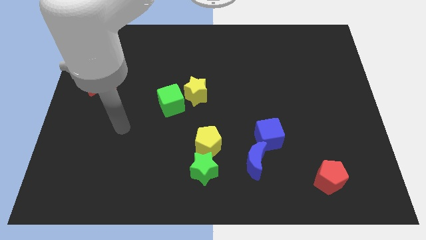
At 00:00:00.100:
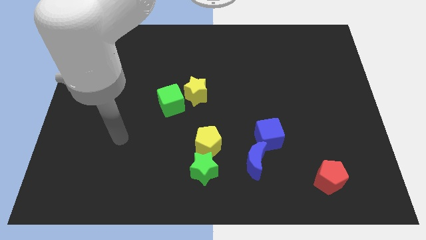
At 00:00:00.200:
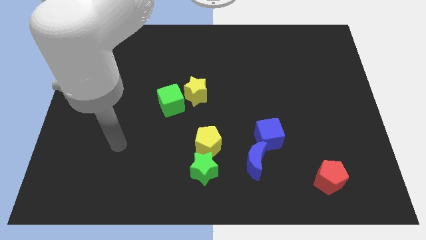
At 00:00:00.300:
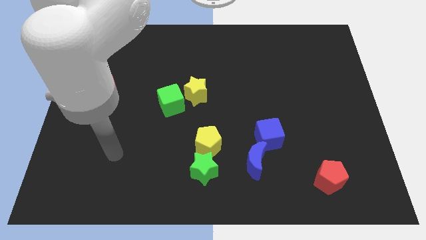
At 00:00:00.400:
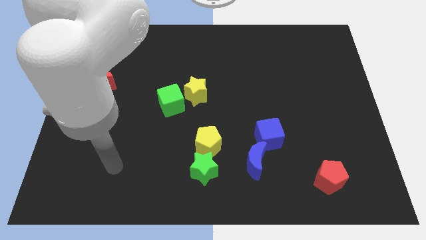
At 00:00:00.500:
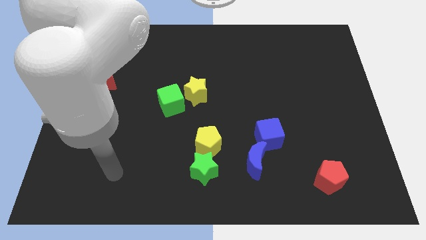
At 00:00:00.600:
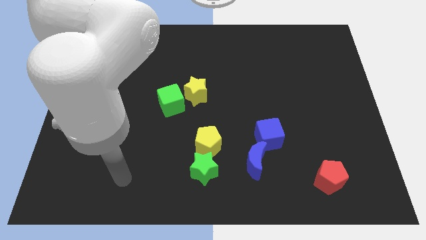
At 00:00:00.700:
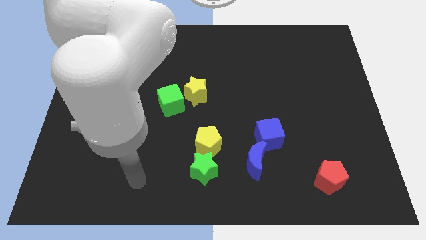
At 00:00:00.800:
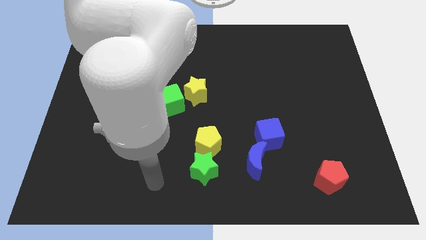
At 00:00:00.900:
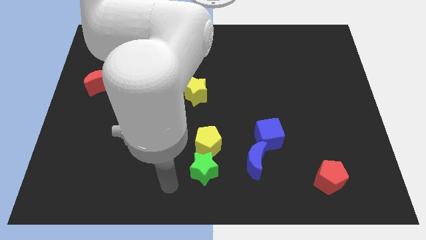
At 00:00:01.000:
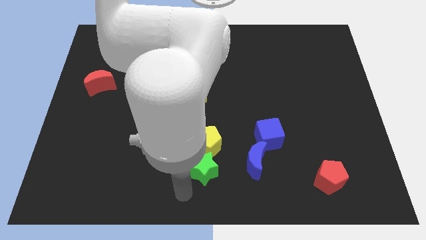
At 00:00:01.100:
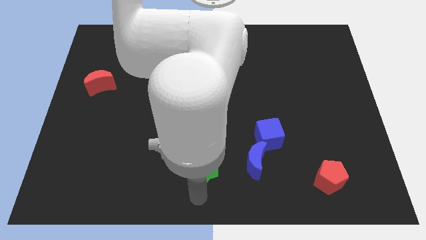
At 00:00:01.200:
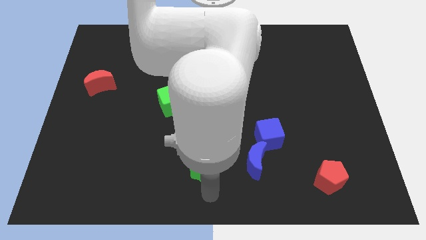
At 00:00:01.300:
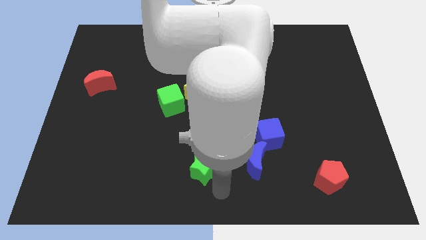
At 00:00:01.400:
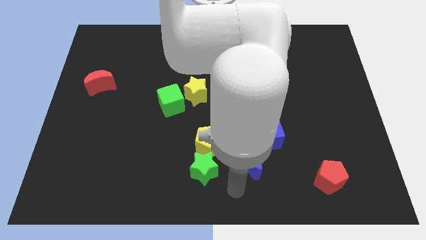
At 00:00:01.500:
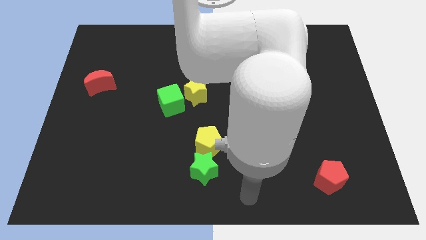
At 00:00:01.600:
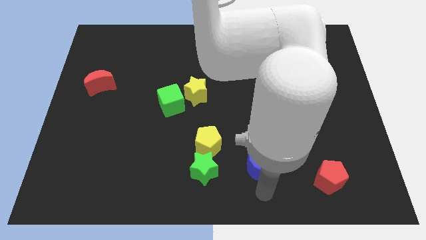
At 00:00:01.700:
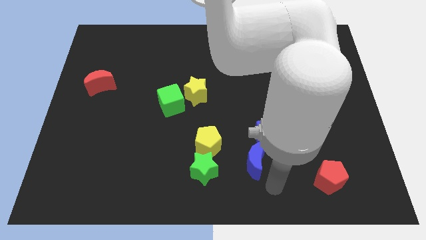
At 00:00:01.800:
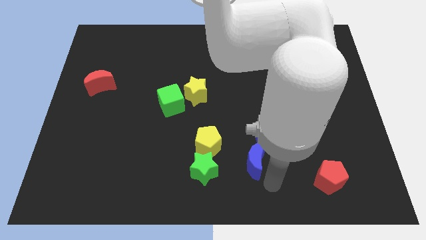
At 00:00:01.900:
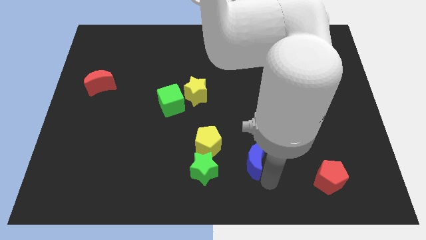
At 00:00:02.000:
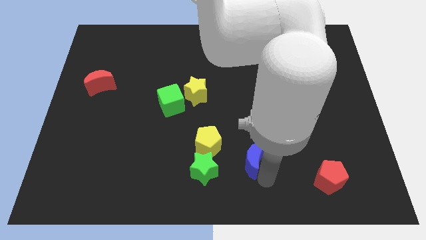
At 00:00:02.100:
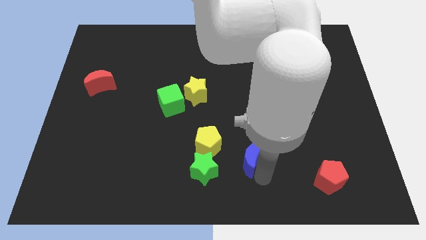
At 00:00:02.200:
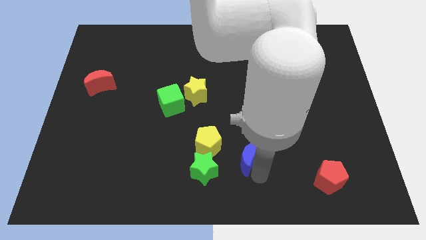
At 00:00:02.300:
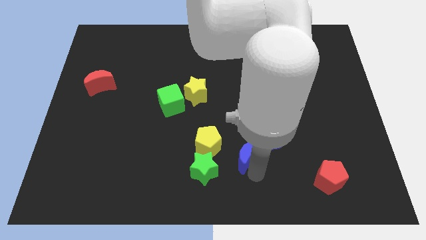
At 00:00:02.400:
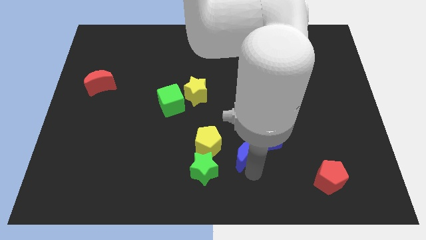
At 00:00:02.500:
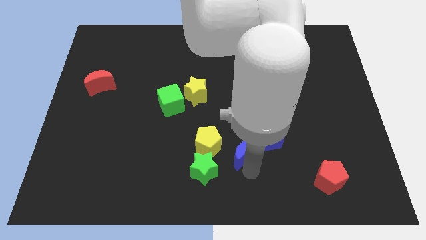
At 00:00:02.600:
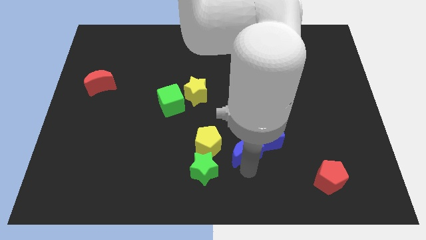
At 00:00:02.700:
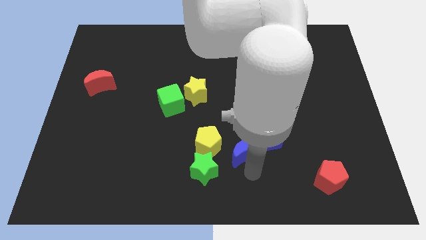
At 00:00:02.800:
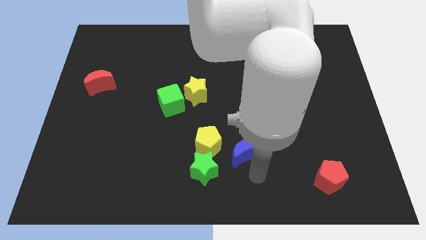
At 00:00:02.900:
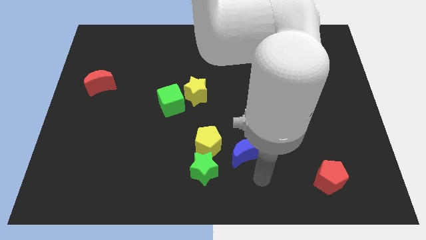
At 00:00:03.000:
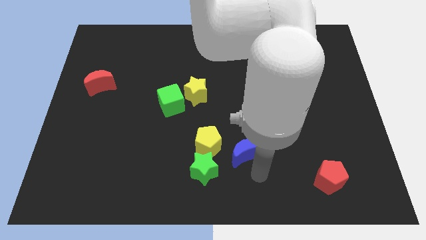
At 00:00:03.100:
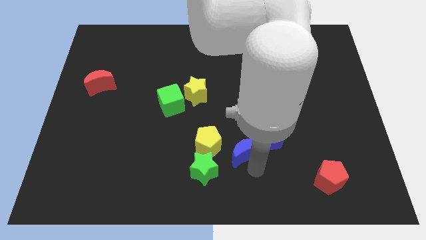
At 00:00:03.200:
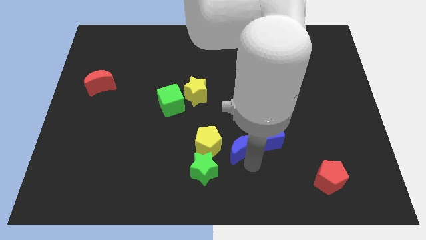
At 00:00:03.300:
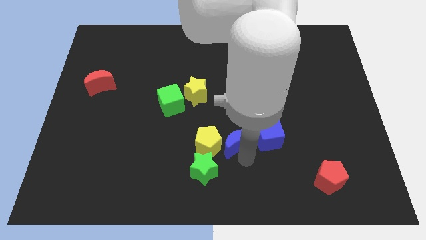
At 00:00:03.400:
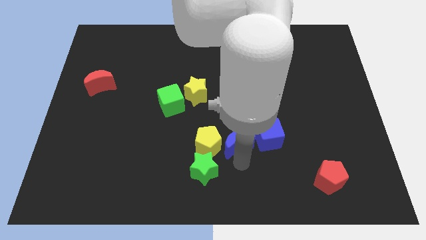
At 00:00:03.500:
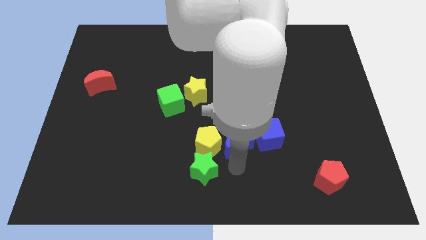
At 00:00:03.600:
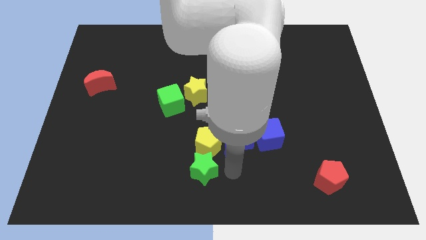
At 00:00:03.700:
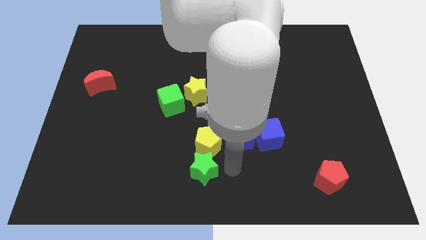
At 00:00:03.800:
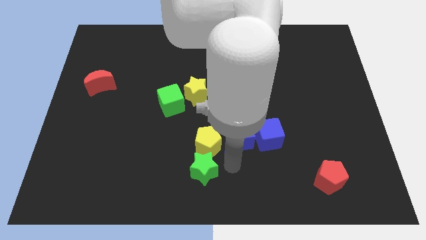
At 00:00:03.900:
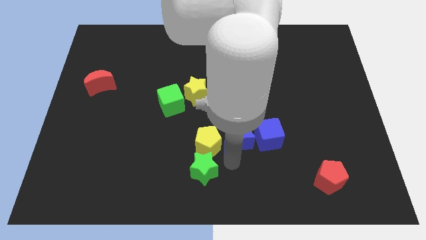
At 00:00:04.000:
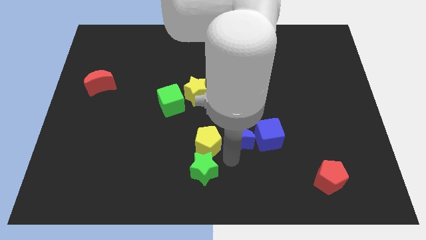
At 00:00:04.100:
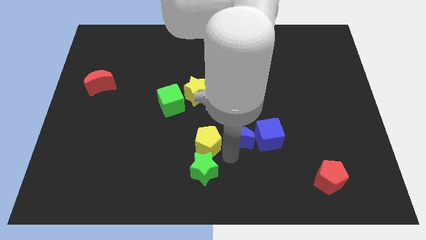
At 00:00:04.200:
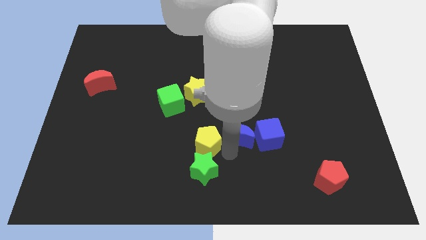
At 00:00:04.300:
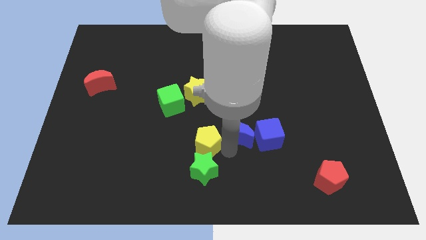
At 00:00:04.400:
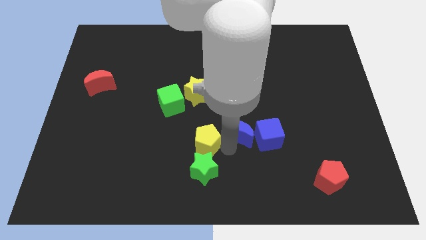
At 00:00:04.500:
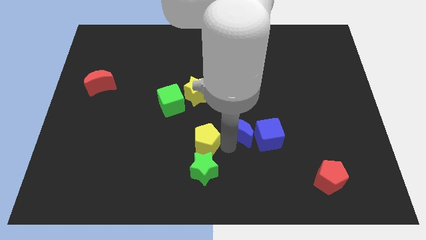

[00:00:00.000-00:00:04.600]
push the blue moon a little upwards

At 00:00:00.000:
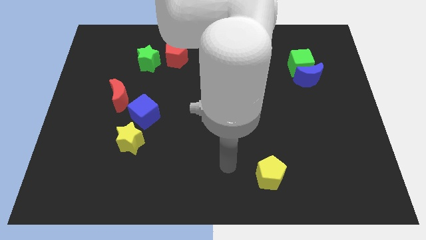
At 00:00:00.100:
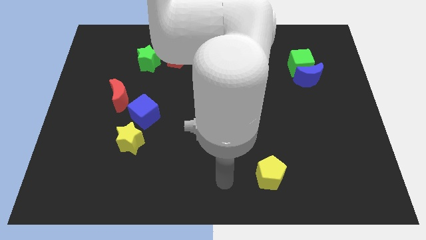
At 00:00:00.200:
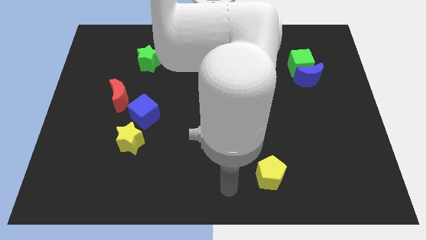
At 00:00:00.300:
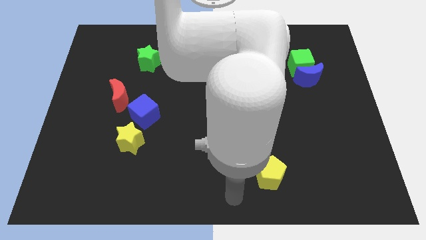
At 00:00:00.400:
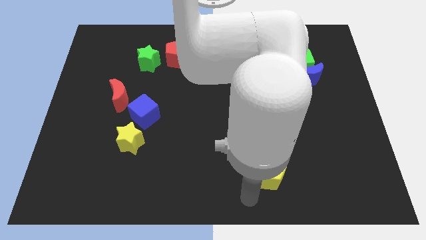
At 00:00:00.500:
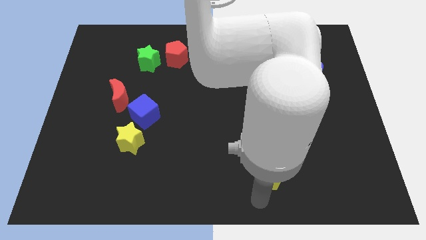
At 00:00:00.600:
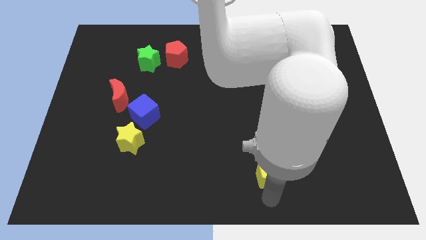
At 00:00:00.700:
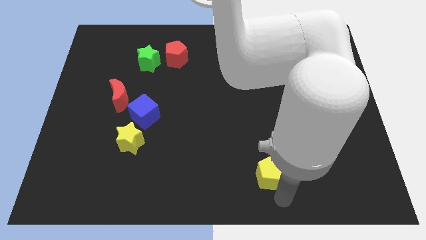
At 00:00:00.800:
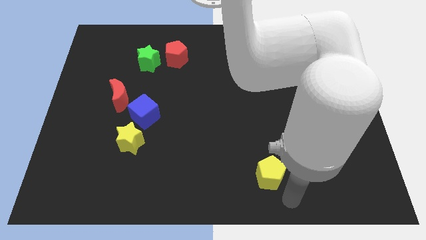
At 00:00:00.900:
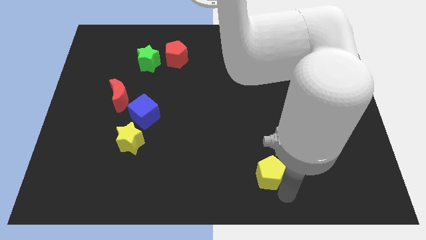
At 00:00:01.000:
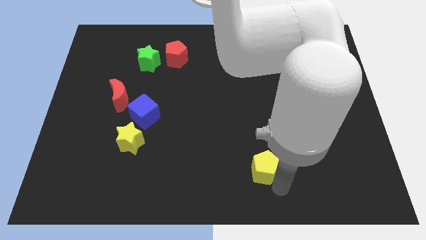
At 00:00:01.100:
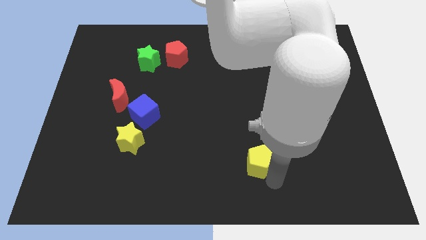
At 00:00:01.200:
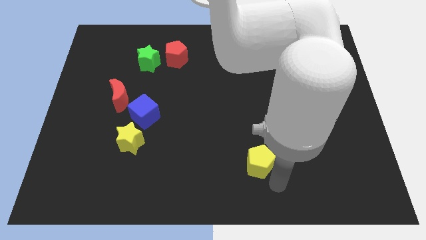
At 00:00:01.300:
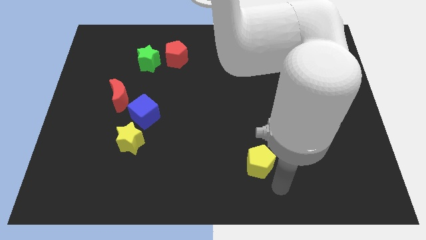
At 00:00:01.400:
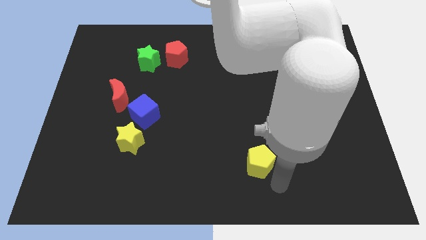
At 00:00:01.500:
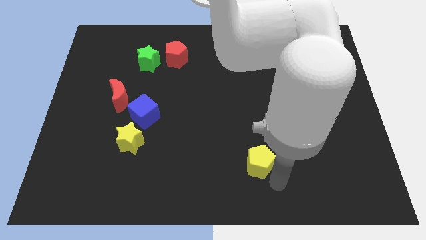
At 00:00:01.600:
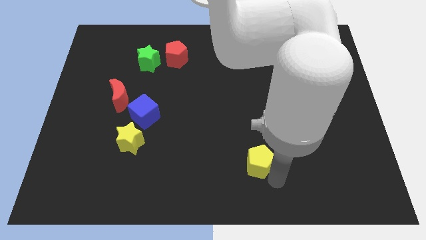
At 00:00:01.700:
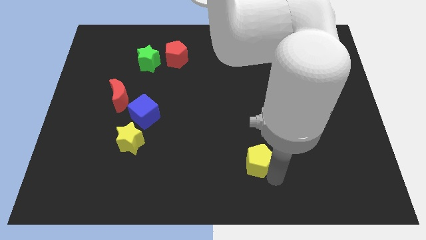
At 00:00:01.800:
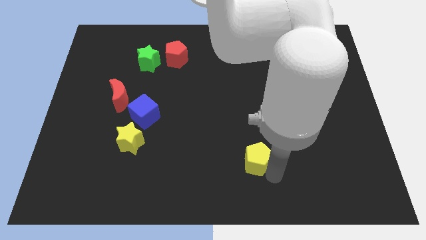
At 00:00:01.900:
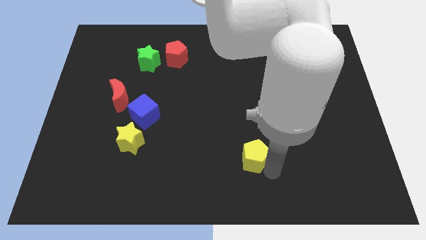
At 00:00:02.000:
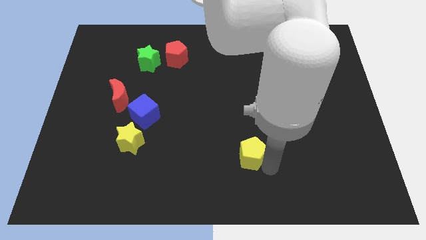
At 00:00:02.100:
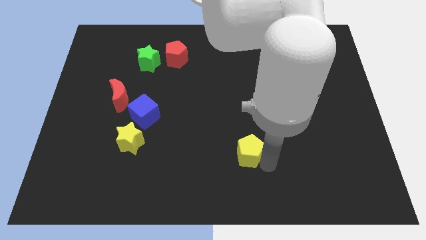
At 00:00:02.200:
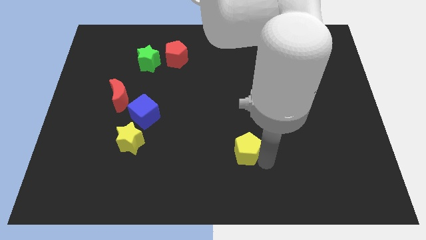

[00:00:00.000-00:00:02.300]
move the yellow pentagon up and to the left a little

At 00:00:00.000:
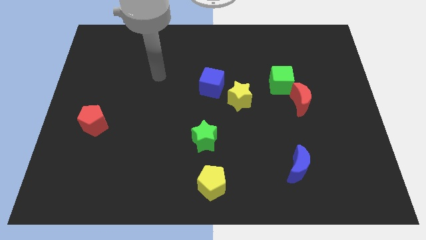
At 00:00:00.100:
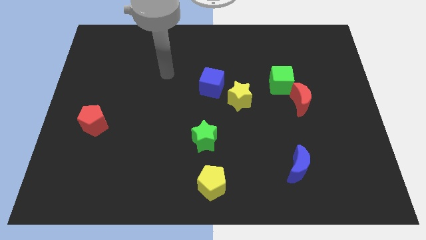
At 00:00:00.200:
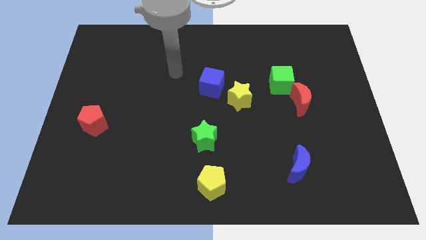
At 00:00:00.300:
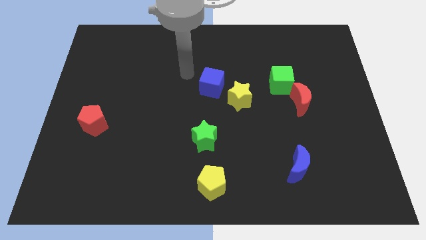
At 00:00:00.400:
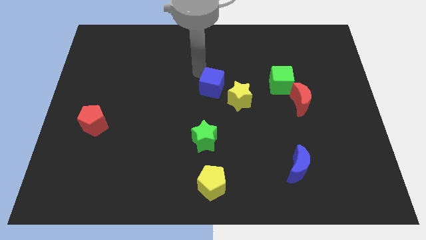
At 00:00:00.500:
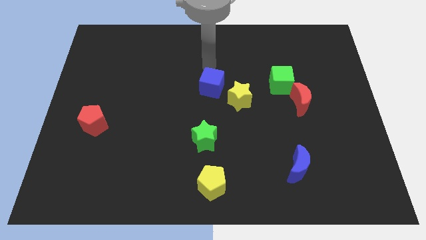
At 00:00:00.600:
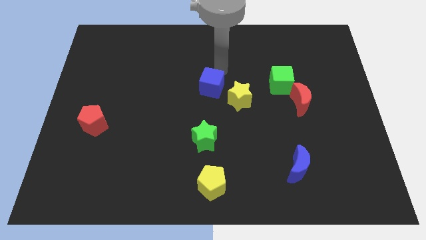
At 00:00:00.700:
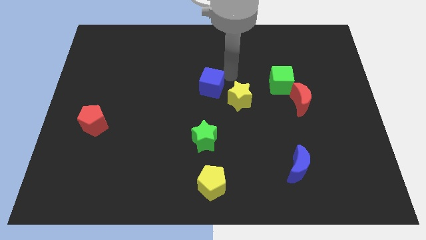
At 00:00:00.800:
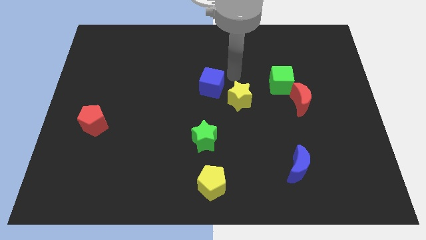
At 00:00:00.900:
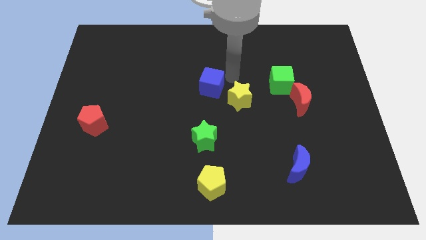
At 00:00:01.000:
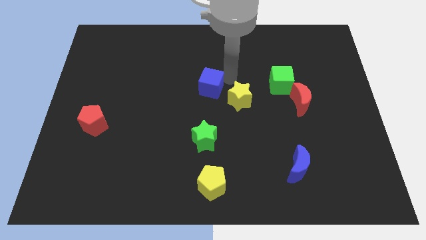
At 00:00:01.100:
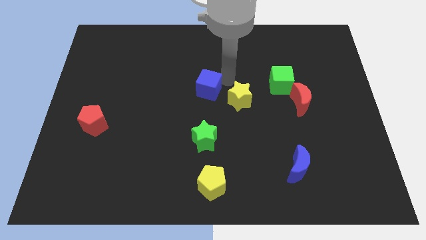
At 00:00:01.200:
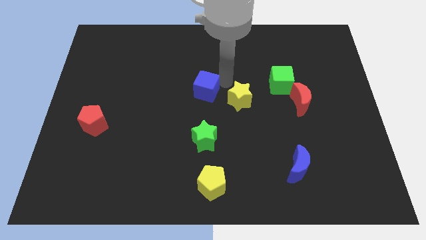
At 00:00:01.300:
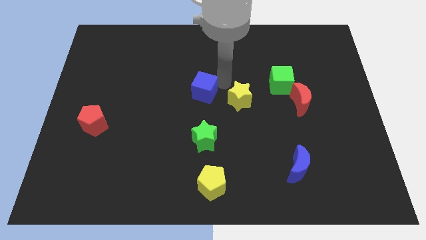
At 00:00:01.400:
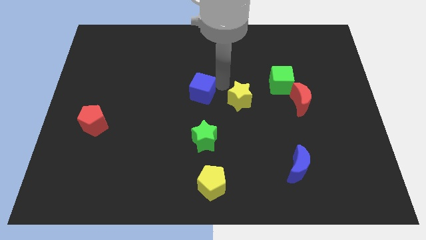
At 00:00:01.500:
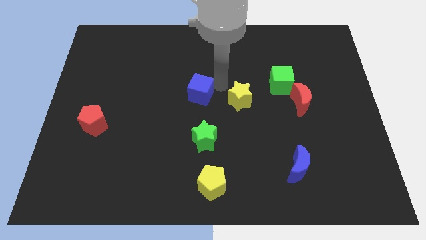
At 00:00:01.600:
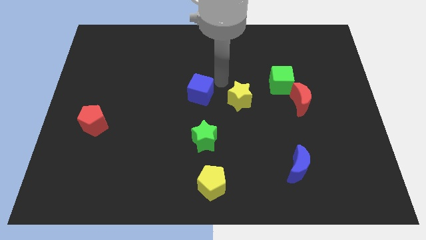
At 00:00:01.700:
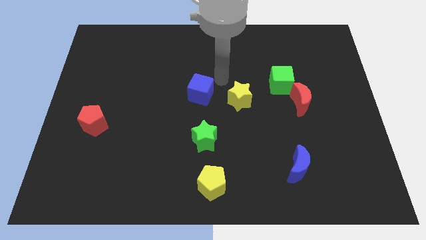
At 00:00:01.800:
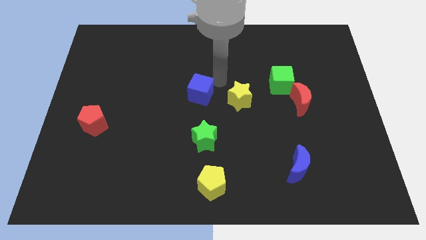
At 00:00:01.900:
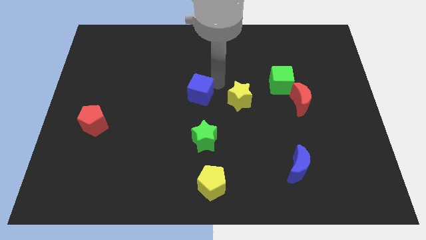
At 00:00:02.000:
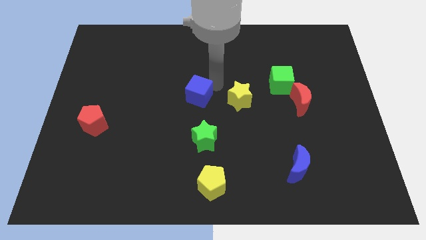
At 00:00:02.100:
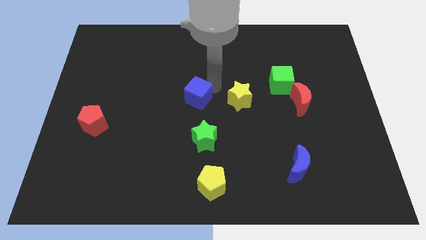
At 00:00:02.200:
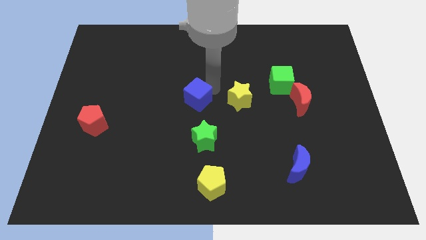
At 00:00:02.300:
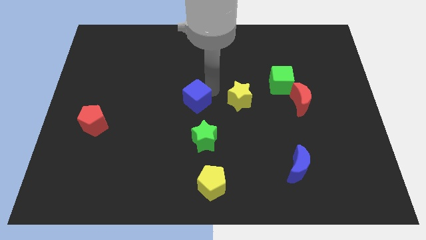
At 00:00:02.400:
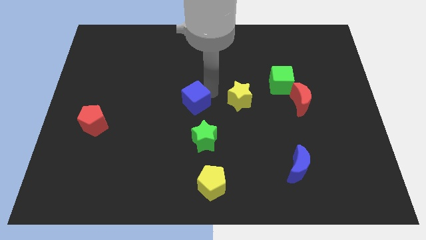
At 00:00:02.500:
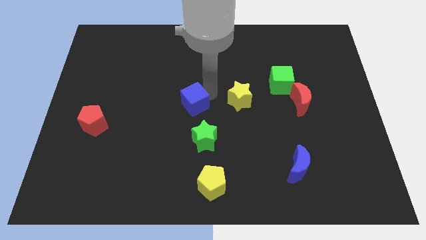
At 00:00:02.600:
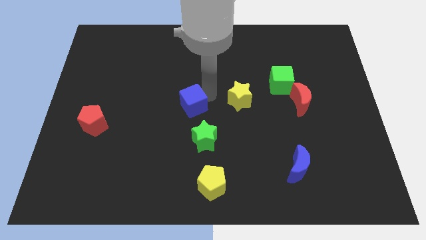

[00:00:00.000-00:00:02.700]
push the blue cube slightly downwards and to the left
